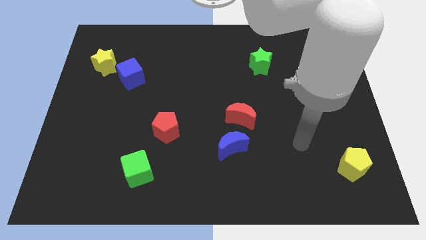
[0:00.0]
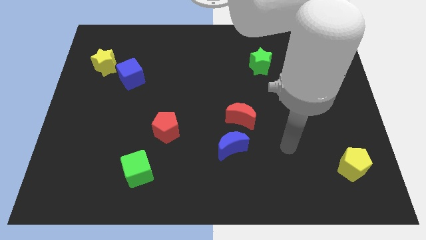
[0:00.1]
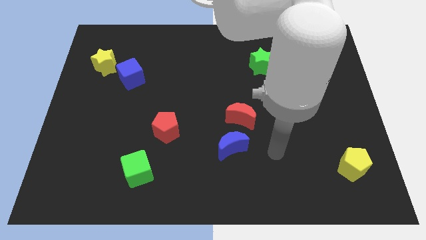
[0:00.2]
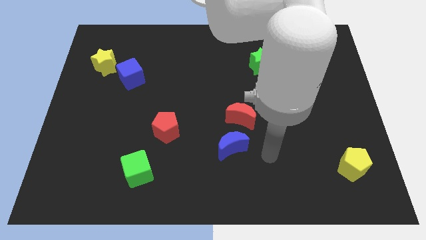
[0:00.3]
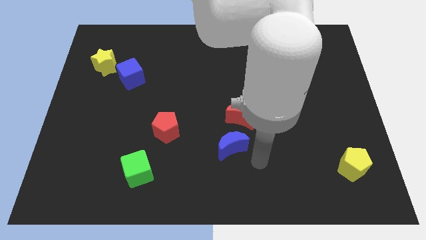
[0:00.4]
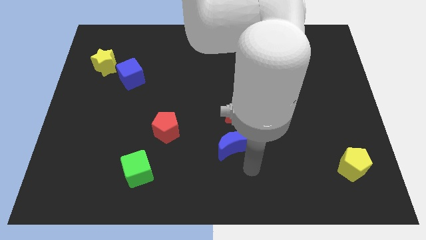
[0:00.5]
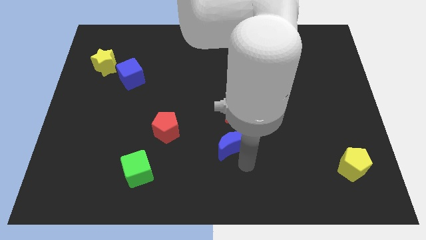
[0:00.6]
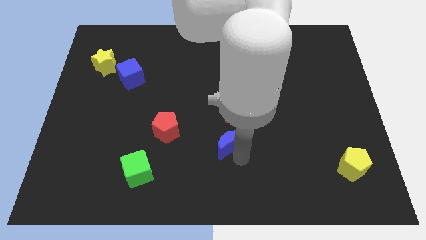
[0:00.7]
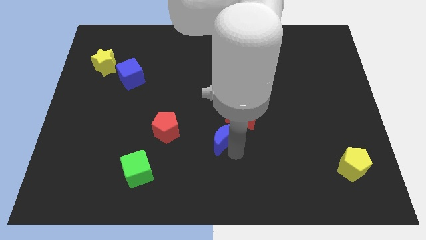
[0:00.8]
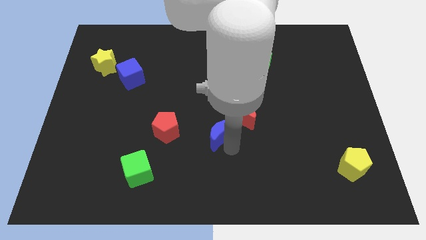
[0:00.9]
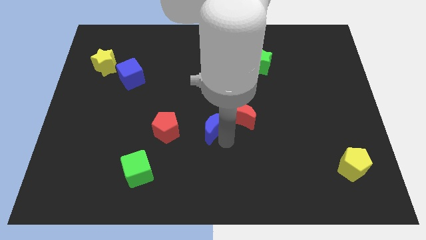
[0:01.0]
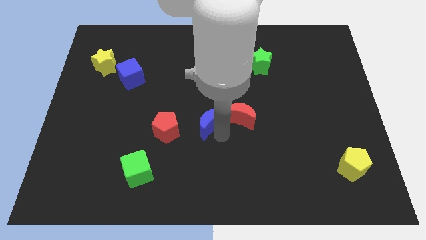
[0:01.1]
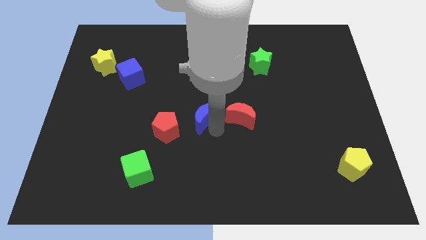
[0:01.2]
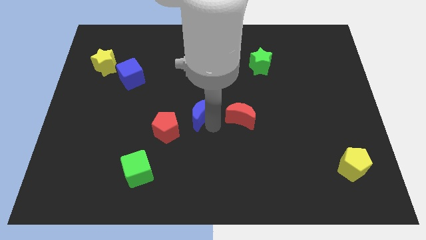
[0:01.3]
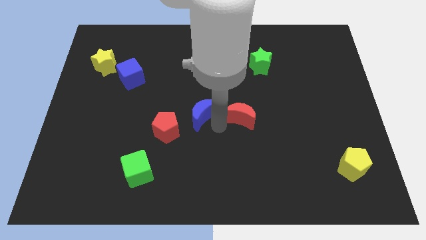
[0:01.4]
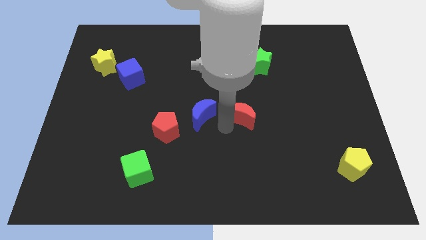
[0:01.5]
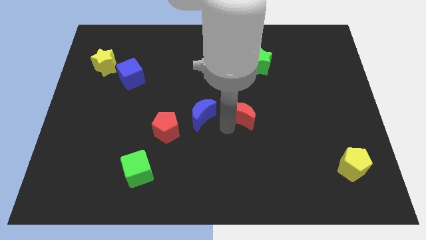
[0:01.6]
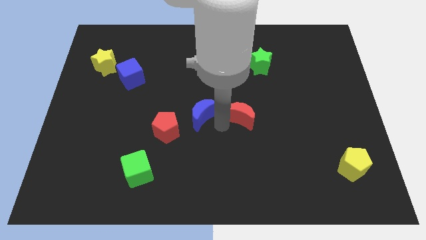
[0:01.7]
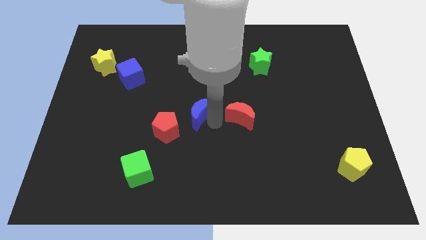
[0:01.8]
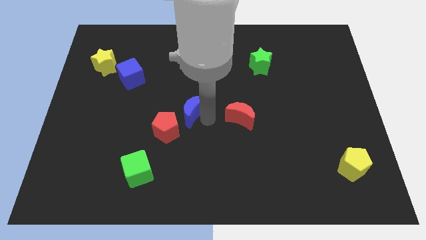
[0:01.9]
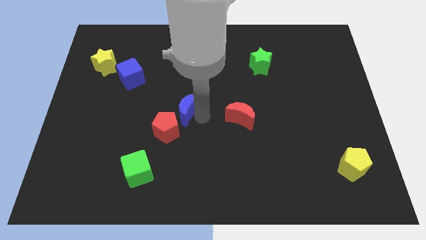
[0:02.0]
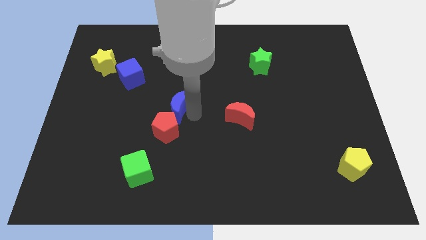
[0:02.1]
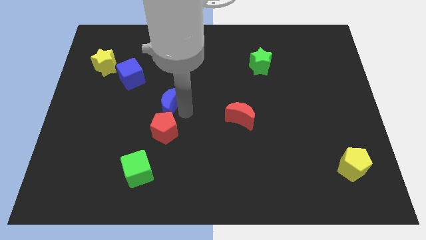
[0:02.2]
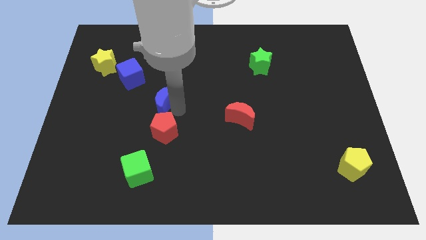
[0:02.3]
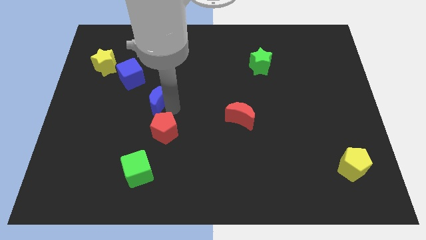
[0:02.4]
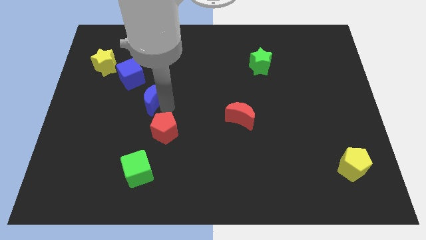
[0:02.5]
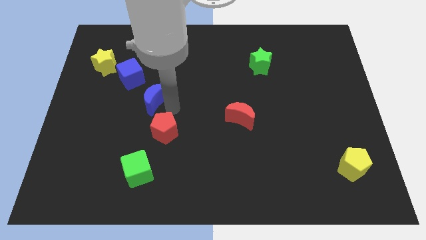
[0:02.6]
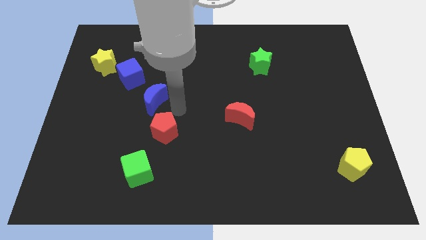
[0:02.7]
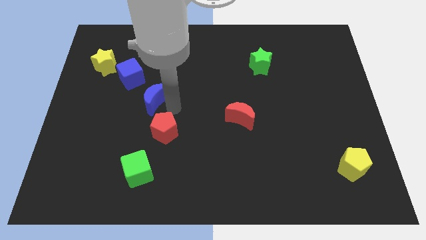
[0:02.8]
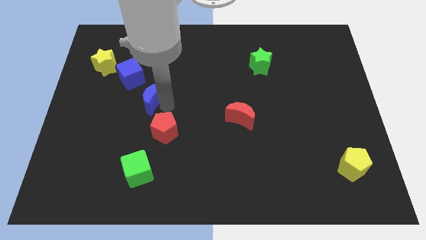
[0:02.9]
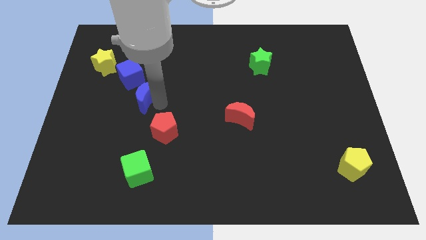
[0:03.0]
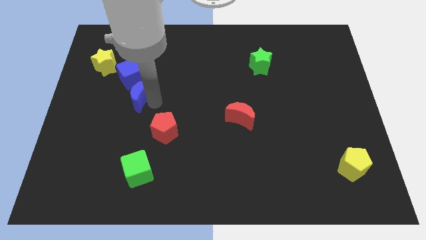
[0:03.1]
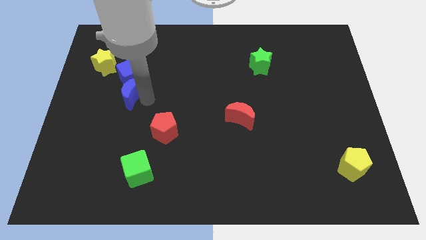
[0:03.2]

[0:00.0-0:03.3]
push the blue moon diagonally down and to the left of the blue cube

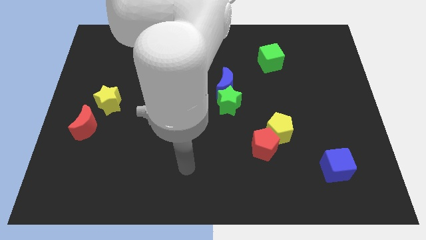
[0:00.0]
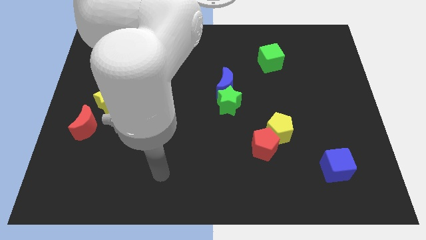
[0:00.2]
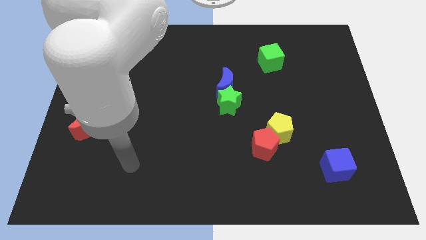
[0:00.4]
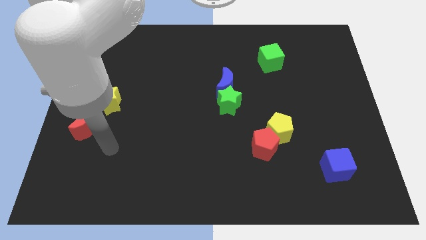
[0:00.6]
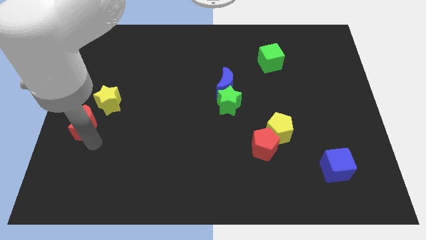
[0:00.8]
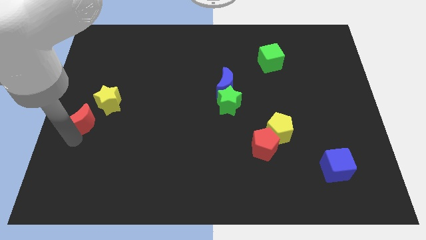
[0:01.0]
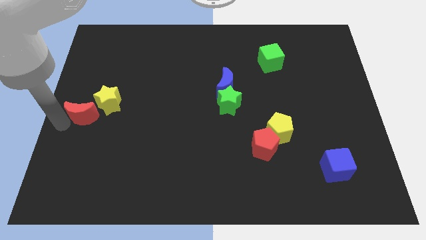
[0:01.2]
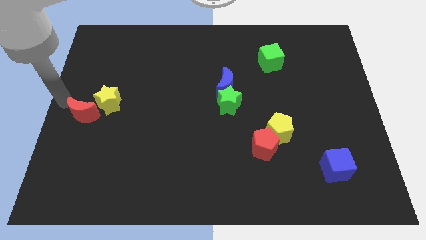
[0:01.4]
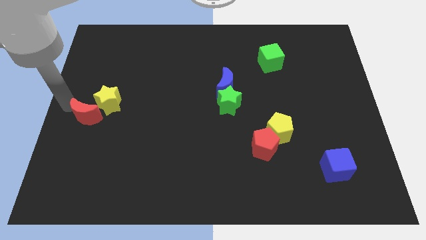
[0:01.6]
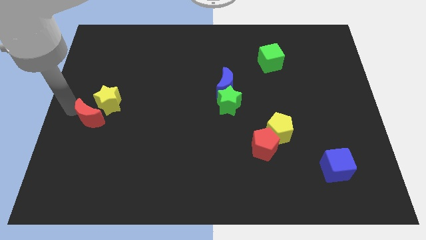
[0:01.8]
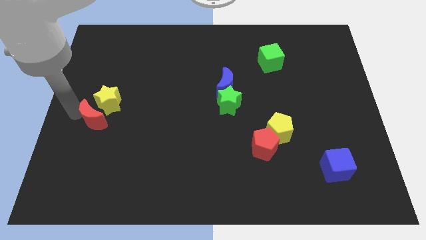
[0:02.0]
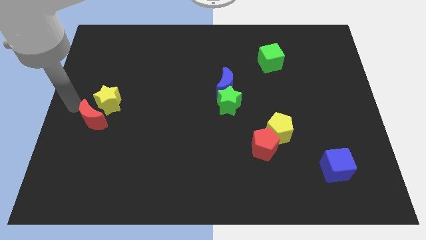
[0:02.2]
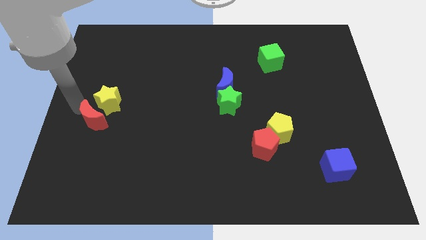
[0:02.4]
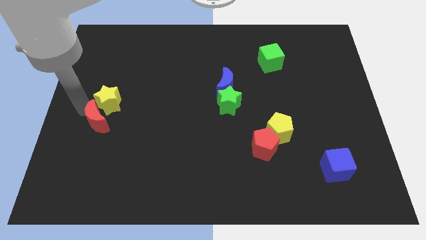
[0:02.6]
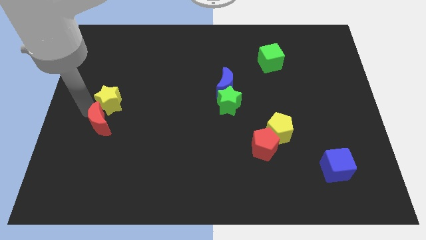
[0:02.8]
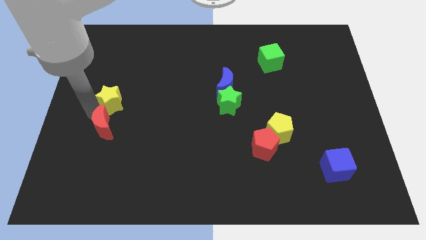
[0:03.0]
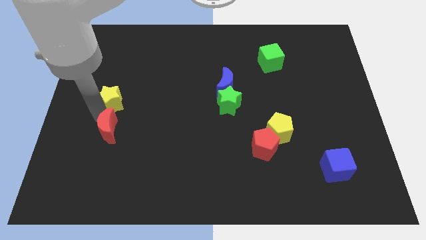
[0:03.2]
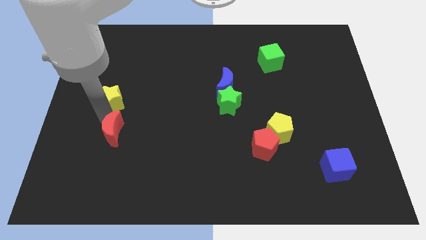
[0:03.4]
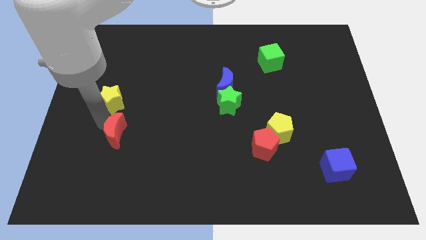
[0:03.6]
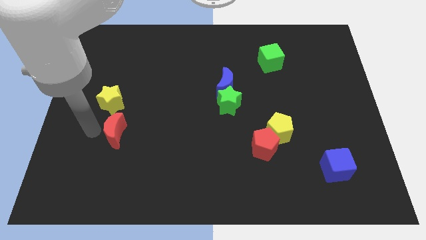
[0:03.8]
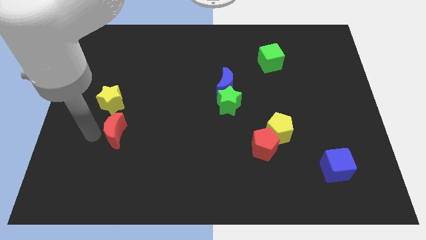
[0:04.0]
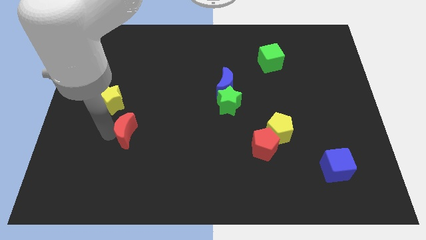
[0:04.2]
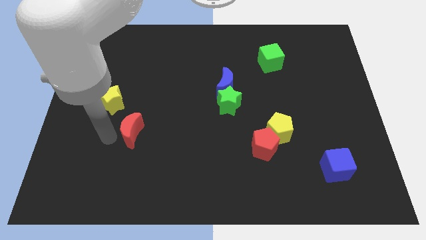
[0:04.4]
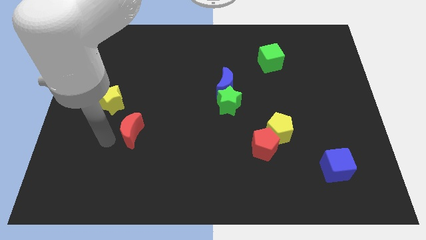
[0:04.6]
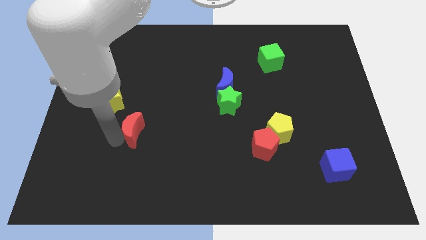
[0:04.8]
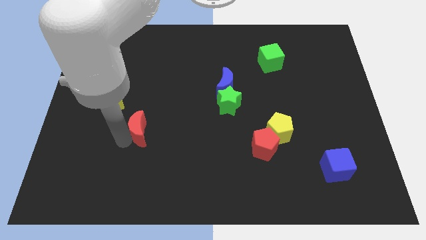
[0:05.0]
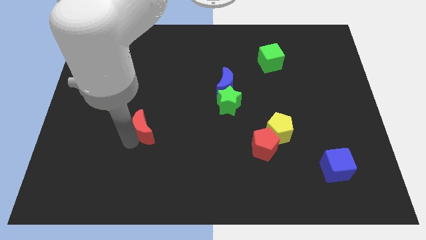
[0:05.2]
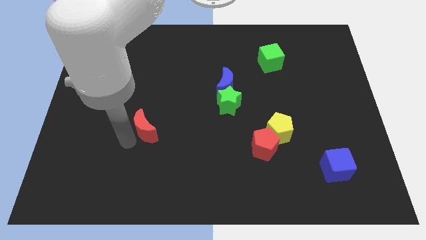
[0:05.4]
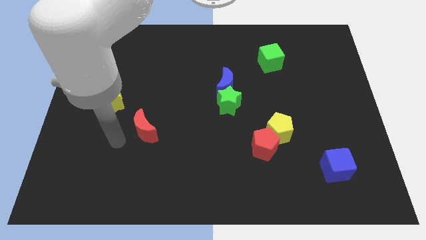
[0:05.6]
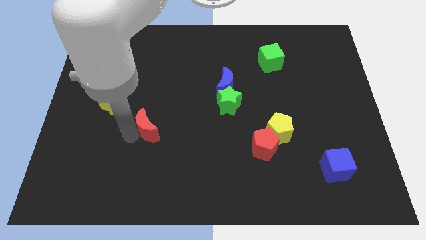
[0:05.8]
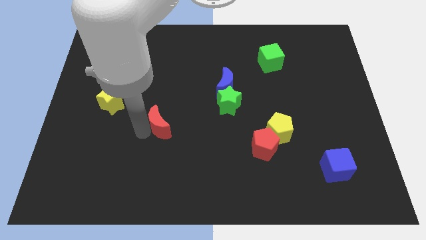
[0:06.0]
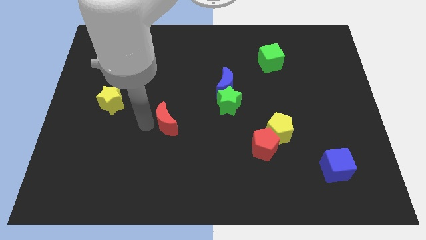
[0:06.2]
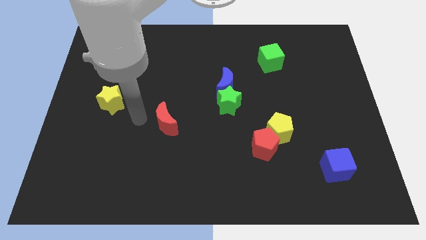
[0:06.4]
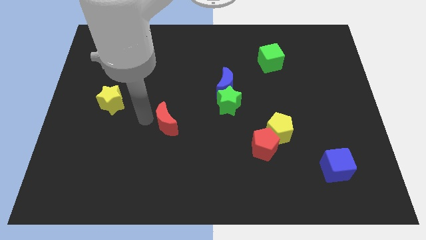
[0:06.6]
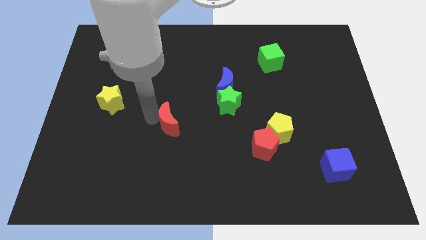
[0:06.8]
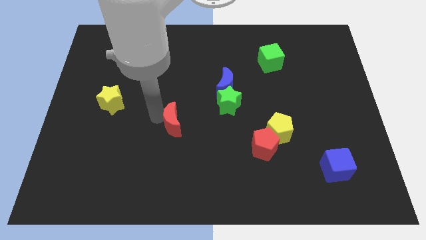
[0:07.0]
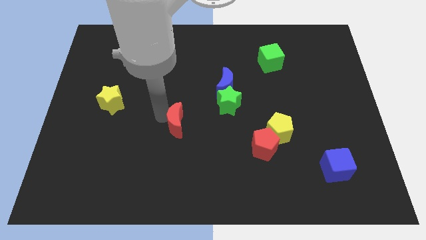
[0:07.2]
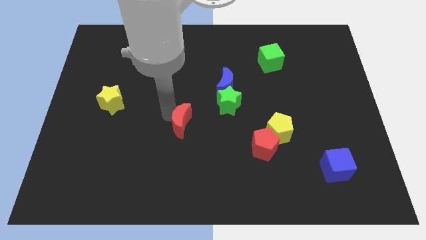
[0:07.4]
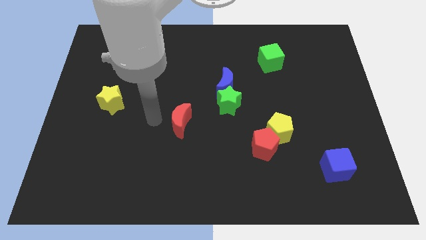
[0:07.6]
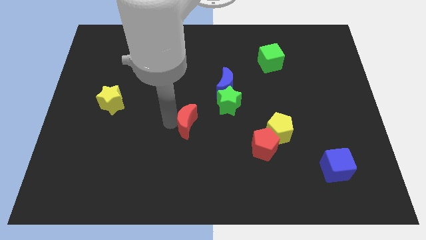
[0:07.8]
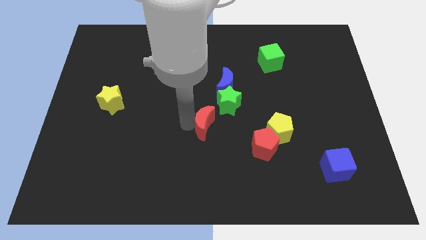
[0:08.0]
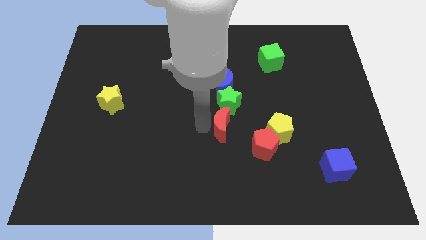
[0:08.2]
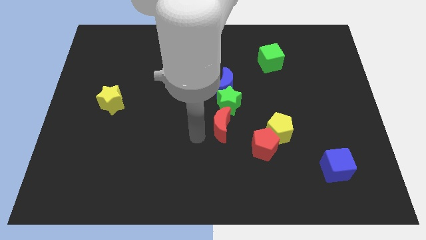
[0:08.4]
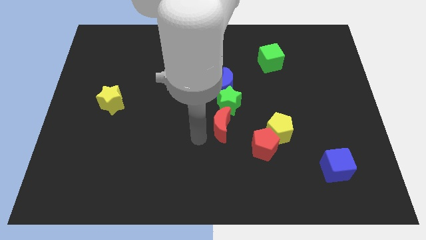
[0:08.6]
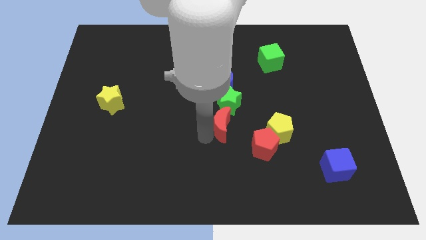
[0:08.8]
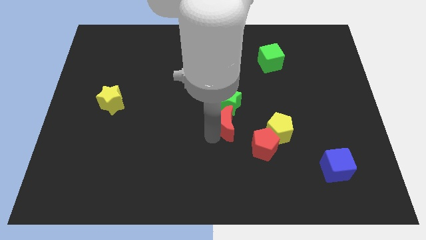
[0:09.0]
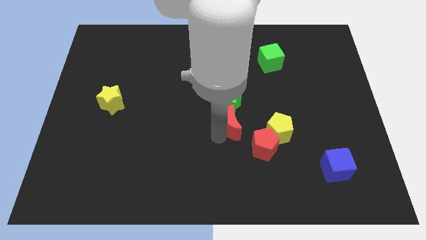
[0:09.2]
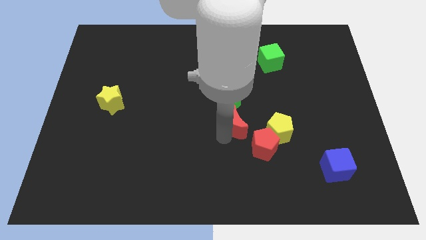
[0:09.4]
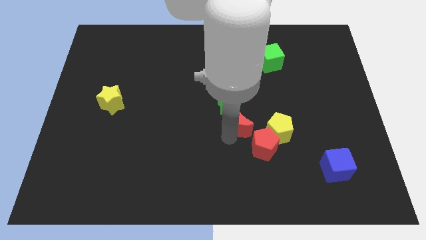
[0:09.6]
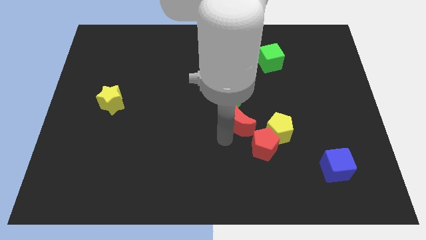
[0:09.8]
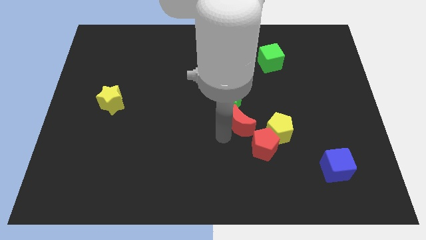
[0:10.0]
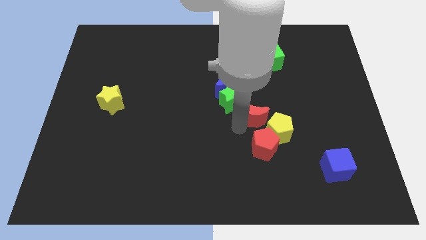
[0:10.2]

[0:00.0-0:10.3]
put the red moon right of the green star
